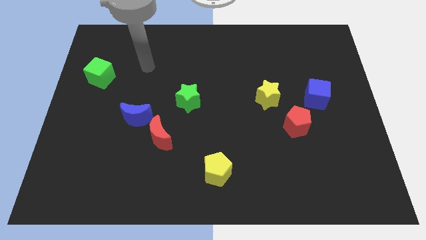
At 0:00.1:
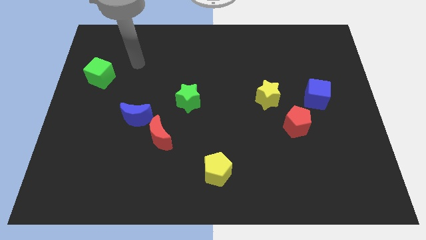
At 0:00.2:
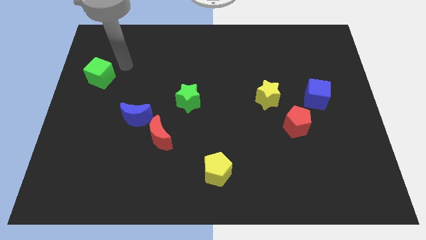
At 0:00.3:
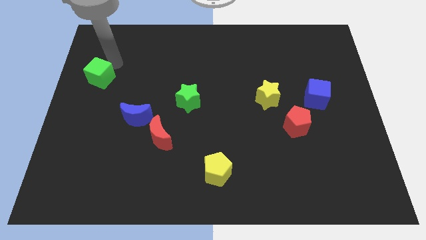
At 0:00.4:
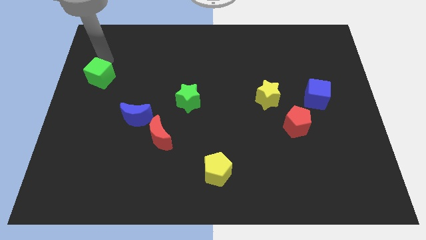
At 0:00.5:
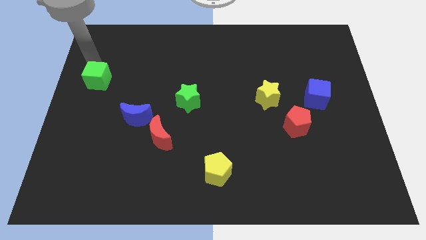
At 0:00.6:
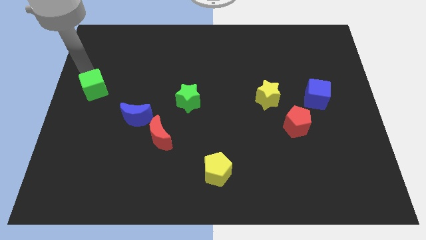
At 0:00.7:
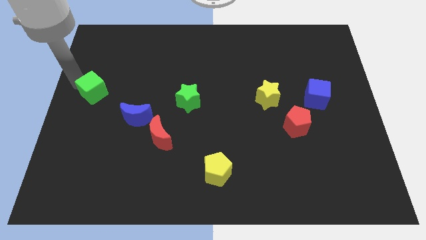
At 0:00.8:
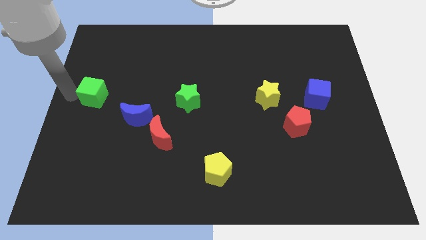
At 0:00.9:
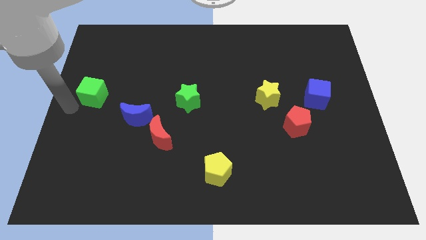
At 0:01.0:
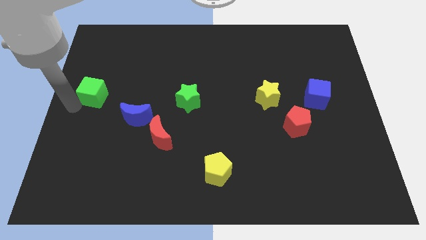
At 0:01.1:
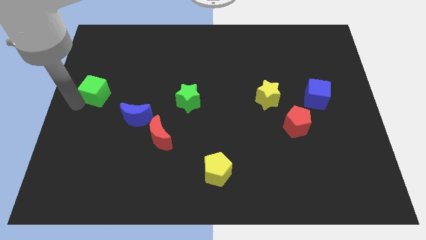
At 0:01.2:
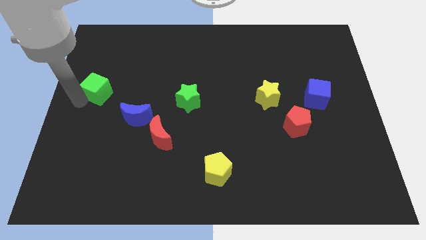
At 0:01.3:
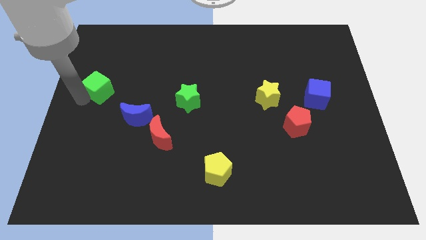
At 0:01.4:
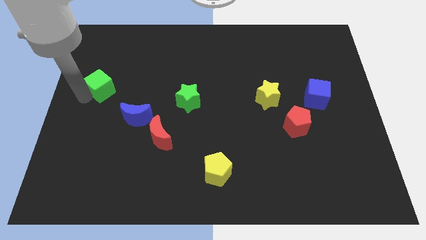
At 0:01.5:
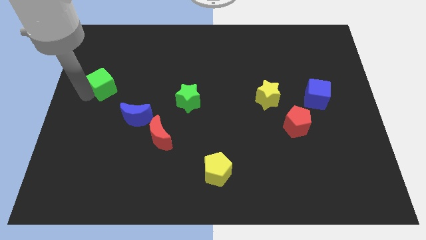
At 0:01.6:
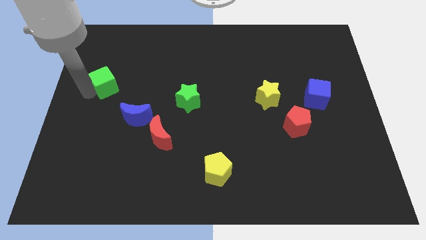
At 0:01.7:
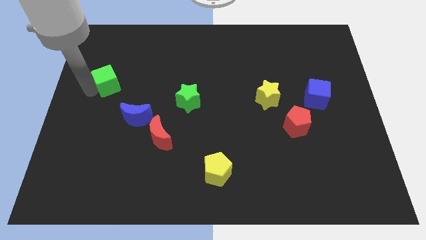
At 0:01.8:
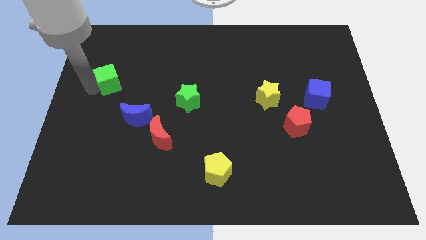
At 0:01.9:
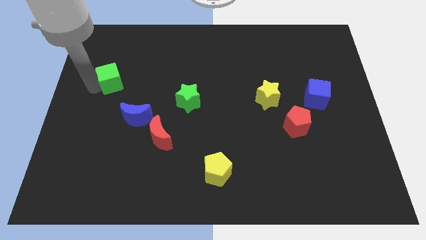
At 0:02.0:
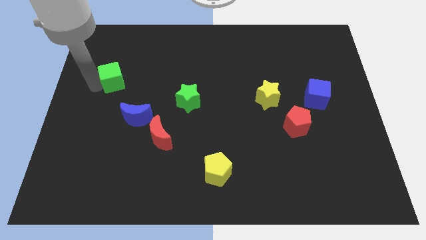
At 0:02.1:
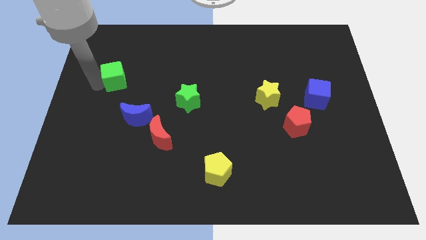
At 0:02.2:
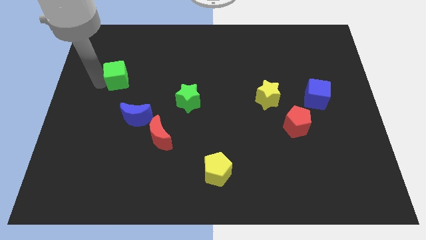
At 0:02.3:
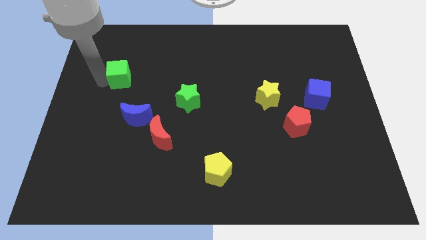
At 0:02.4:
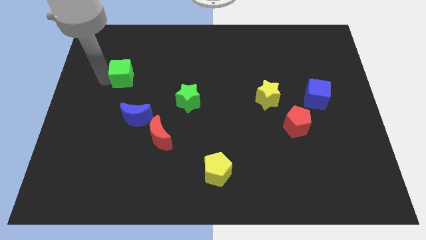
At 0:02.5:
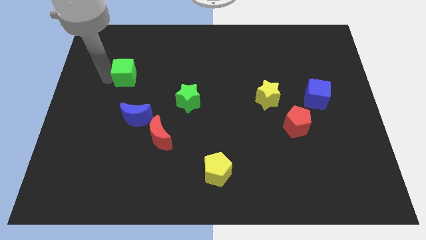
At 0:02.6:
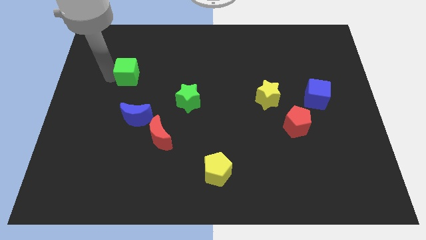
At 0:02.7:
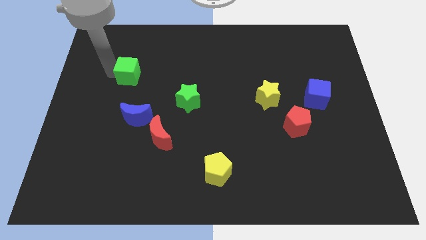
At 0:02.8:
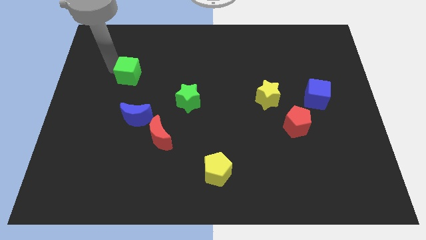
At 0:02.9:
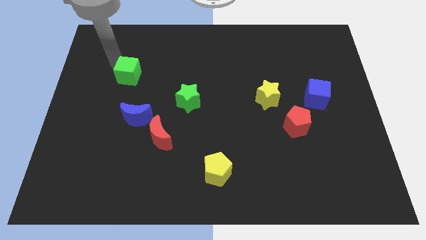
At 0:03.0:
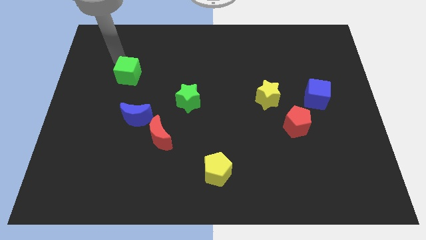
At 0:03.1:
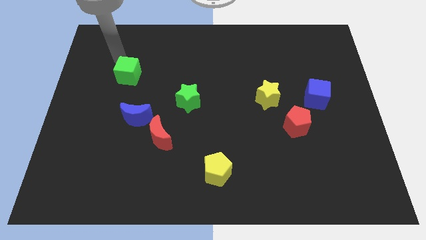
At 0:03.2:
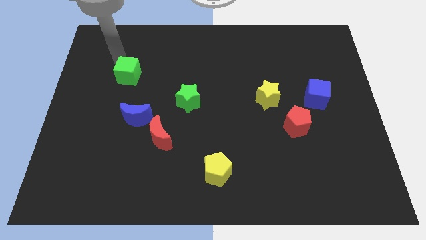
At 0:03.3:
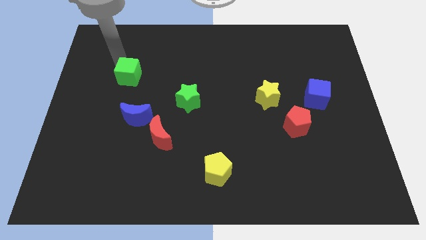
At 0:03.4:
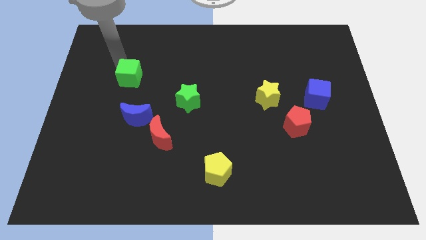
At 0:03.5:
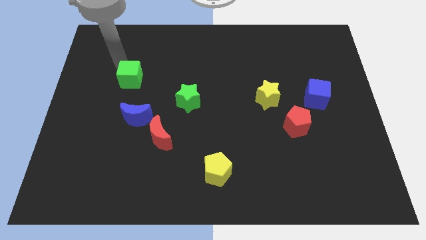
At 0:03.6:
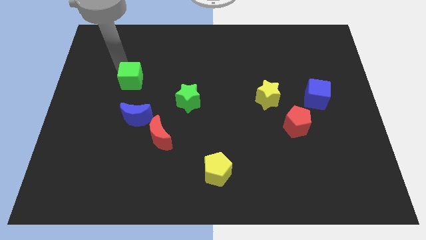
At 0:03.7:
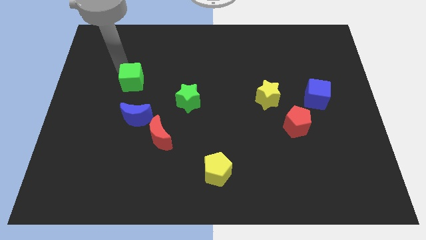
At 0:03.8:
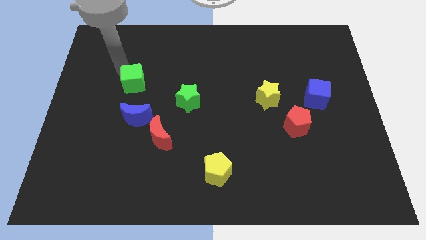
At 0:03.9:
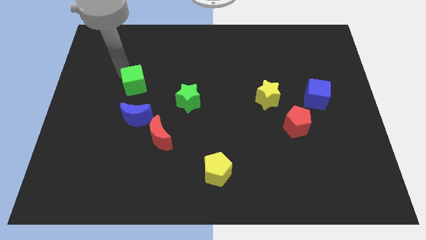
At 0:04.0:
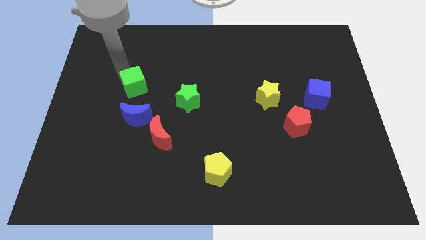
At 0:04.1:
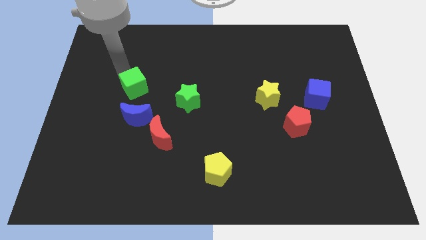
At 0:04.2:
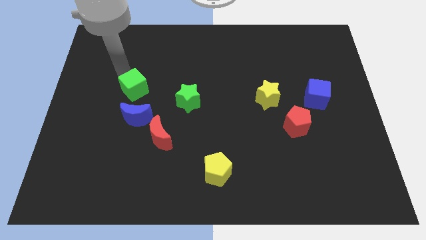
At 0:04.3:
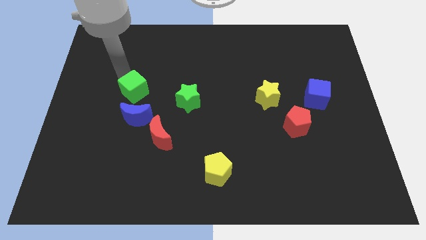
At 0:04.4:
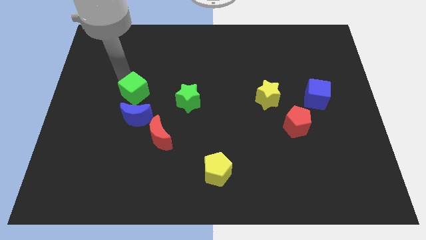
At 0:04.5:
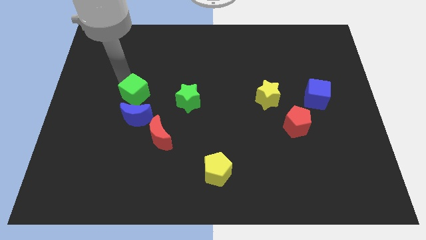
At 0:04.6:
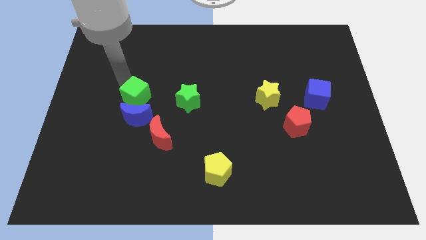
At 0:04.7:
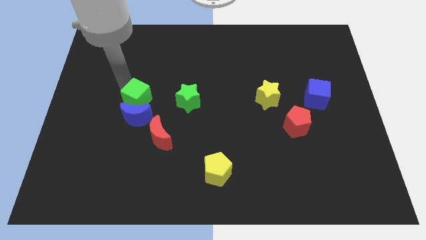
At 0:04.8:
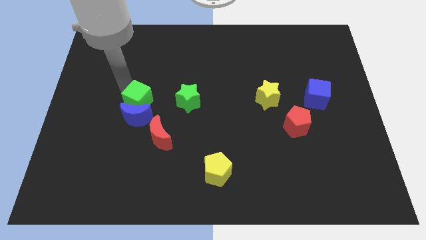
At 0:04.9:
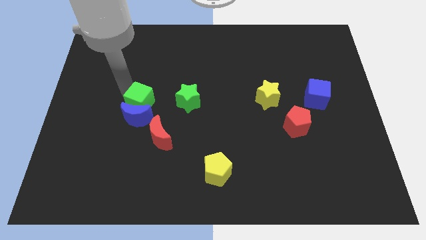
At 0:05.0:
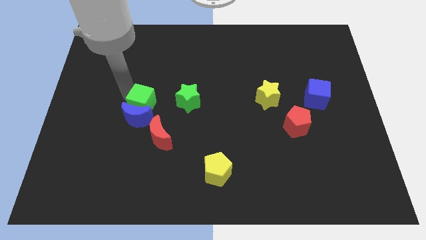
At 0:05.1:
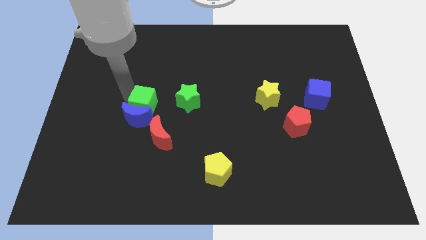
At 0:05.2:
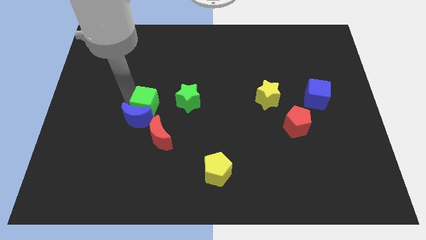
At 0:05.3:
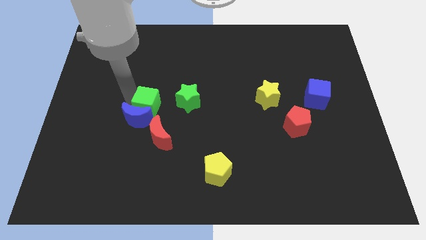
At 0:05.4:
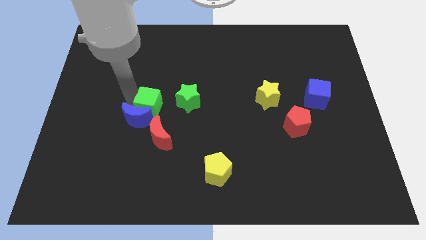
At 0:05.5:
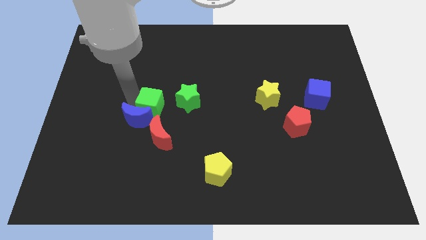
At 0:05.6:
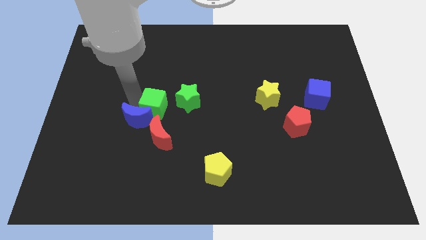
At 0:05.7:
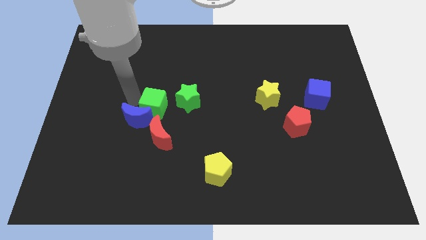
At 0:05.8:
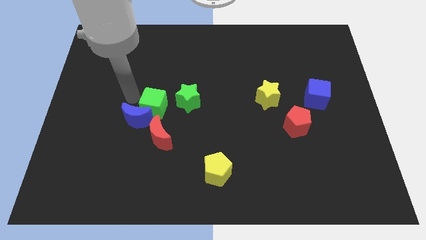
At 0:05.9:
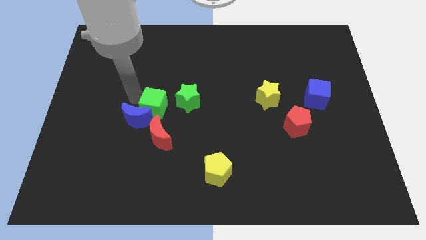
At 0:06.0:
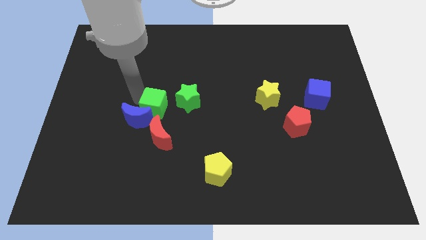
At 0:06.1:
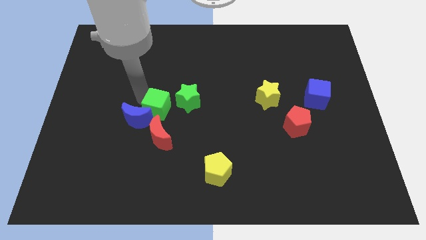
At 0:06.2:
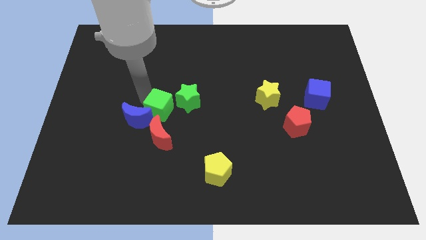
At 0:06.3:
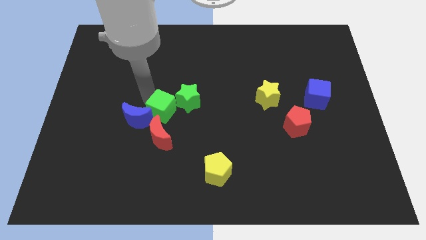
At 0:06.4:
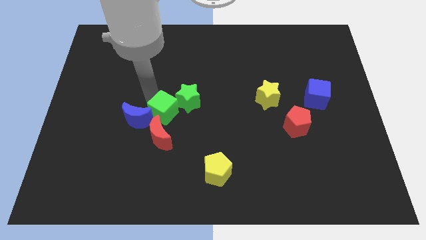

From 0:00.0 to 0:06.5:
move the green cube to the top right side of the red moon

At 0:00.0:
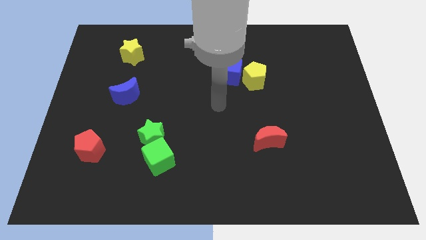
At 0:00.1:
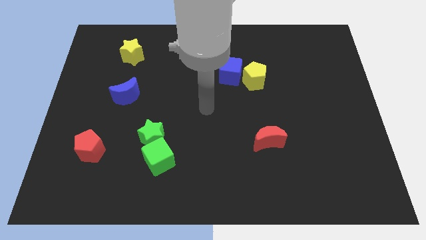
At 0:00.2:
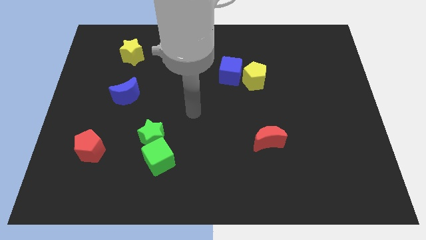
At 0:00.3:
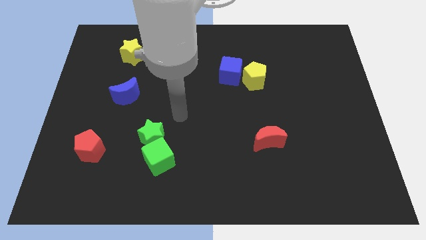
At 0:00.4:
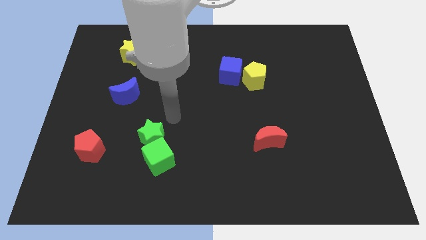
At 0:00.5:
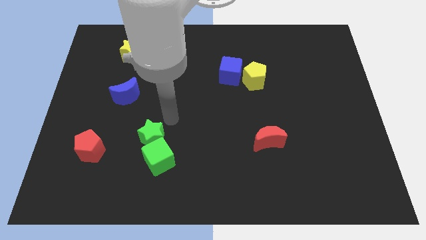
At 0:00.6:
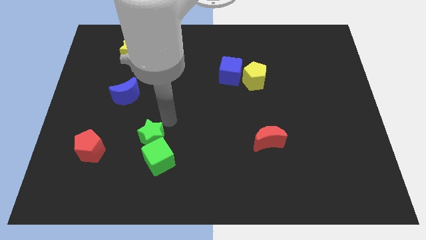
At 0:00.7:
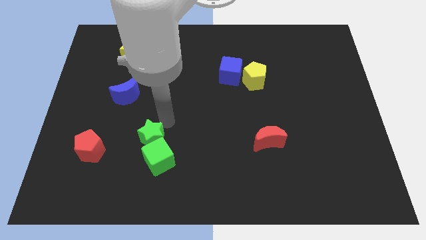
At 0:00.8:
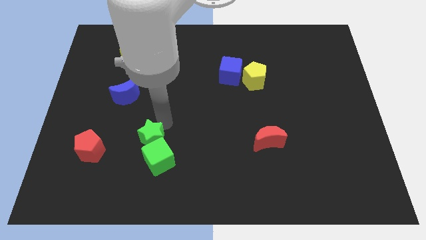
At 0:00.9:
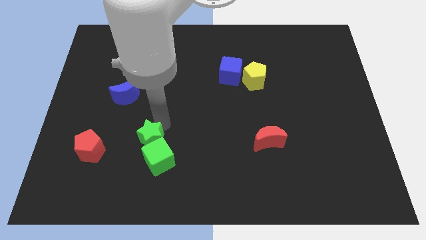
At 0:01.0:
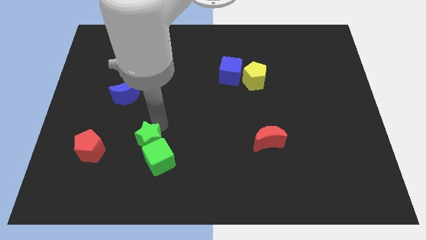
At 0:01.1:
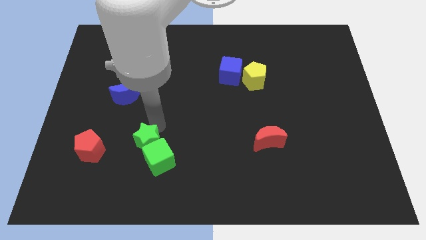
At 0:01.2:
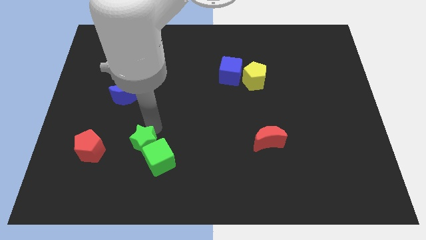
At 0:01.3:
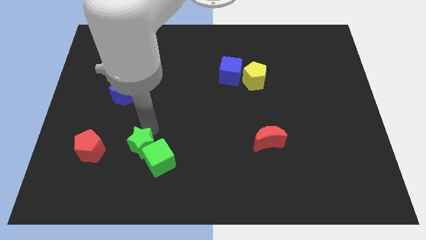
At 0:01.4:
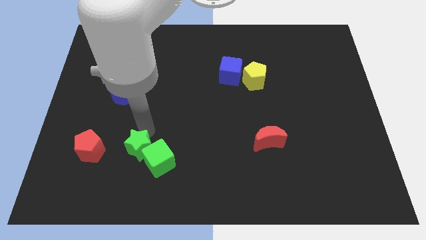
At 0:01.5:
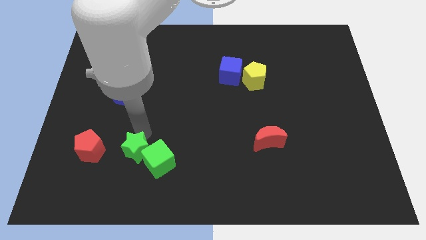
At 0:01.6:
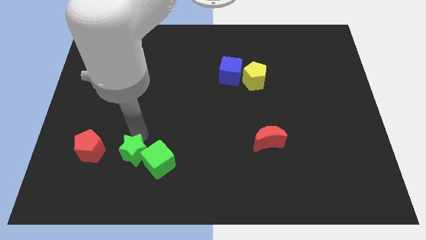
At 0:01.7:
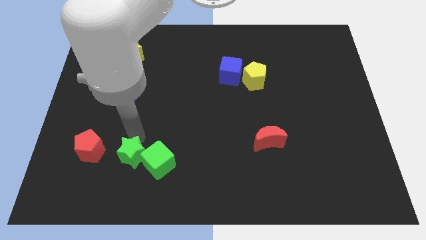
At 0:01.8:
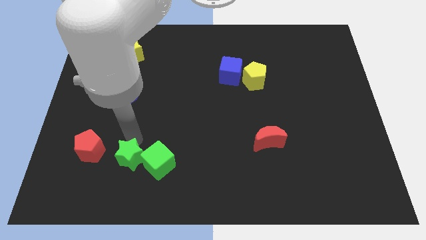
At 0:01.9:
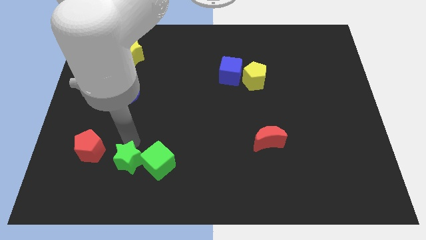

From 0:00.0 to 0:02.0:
put the green star diagonally down and to the left of the green cube
